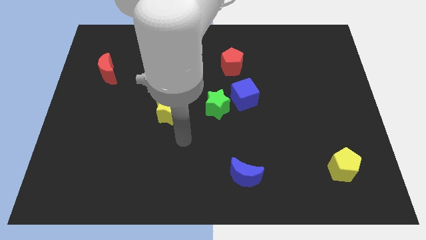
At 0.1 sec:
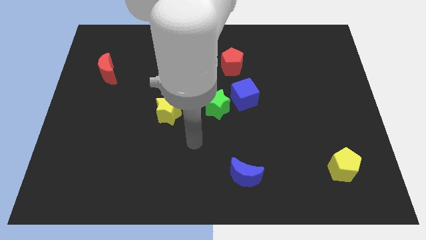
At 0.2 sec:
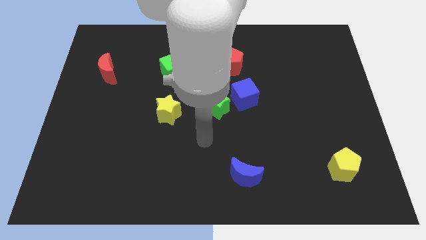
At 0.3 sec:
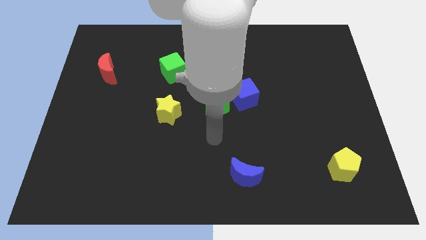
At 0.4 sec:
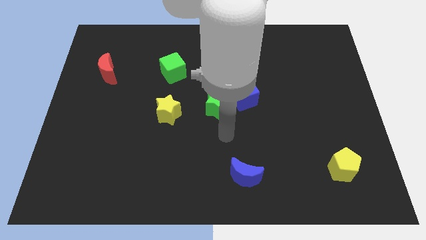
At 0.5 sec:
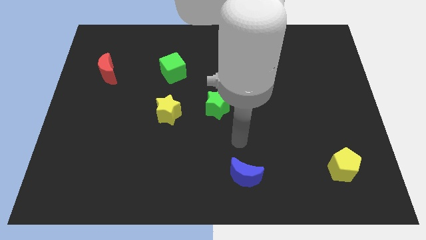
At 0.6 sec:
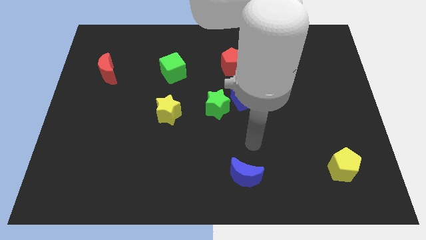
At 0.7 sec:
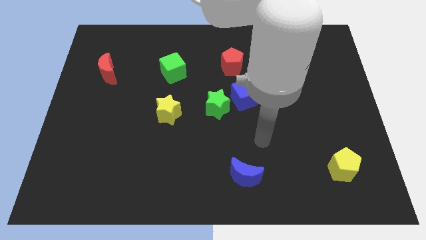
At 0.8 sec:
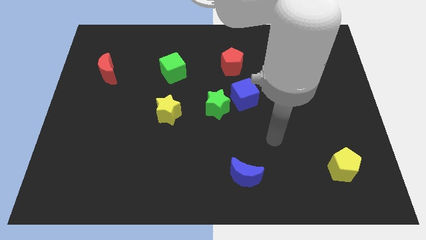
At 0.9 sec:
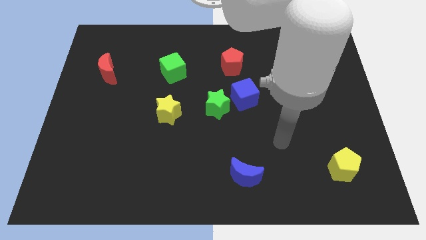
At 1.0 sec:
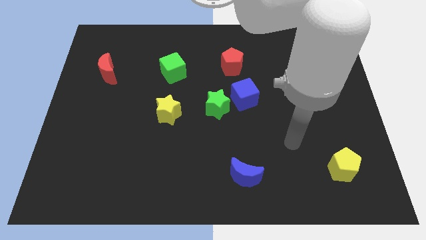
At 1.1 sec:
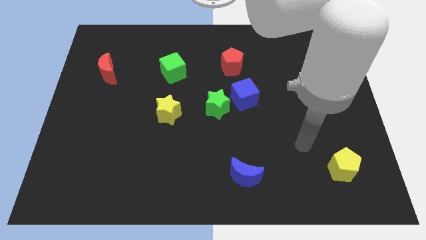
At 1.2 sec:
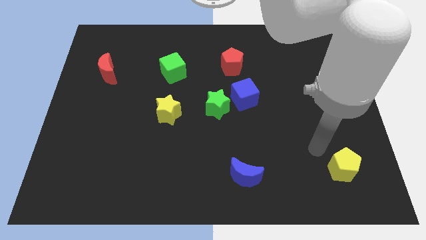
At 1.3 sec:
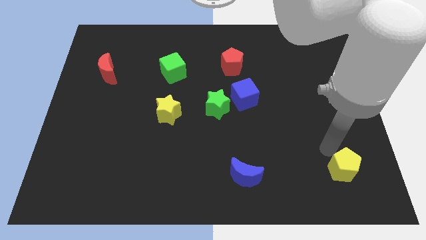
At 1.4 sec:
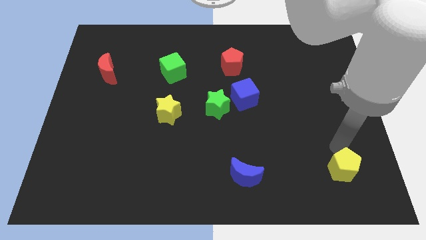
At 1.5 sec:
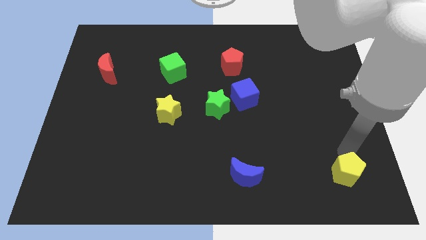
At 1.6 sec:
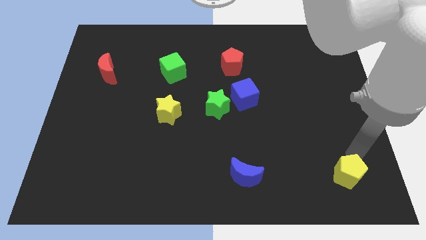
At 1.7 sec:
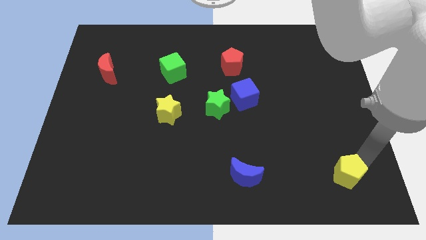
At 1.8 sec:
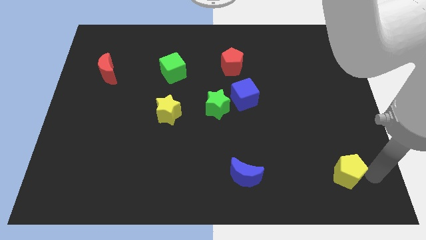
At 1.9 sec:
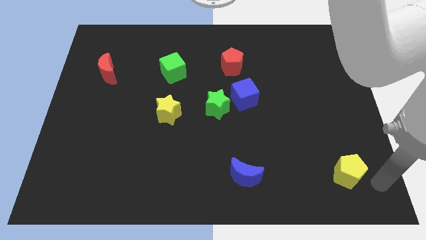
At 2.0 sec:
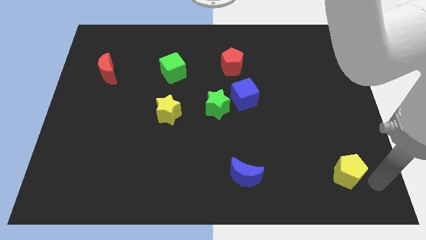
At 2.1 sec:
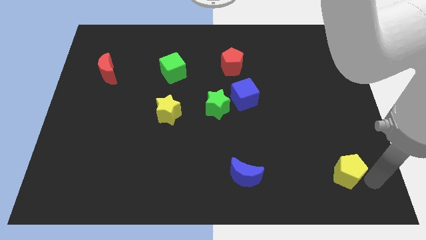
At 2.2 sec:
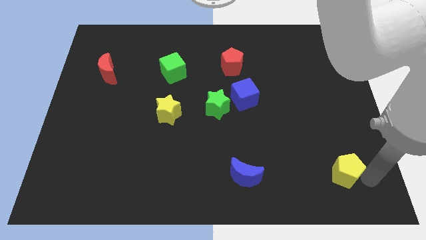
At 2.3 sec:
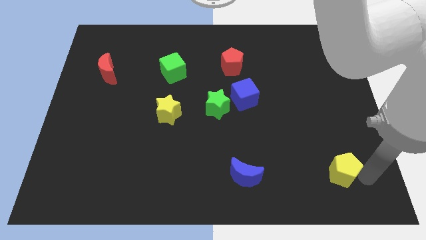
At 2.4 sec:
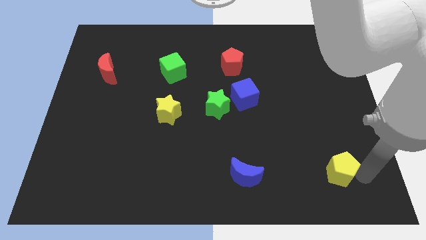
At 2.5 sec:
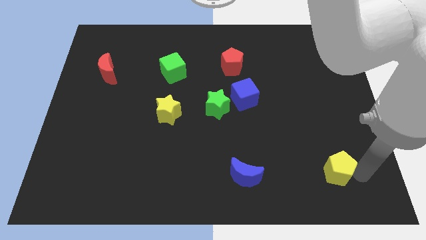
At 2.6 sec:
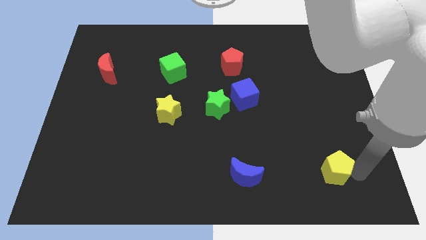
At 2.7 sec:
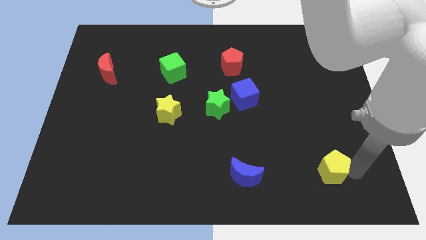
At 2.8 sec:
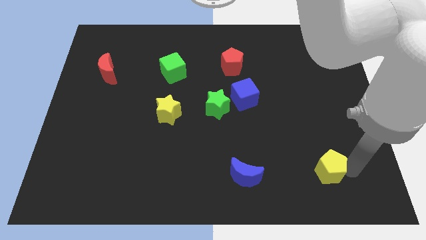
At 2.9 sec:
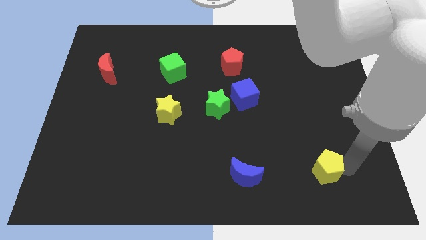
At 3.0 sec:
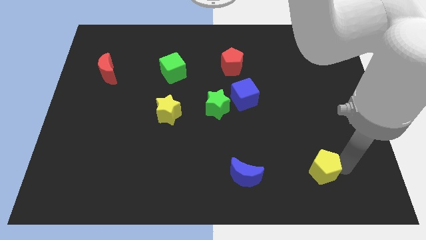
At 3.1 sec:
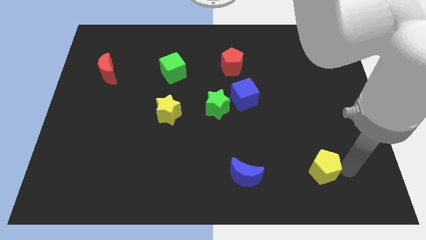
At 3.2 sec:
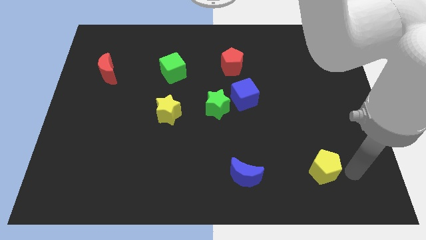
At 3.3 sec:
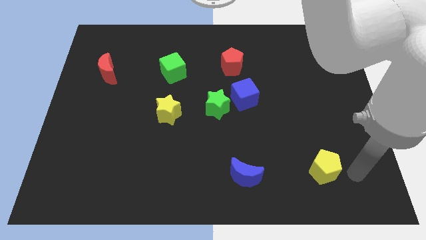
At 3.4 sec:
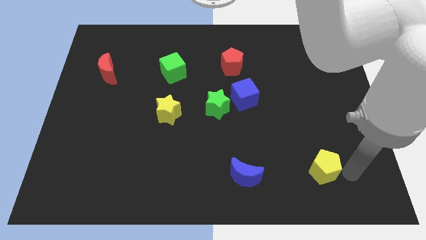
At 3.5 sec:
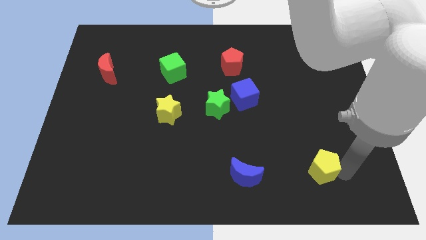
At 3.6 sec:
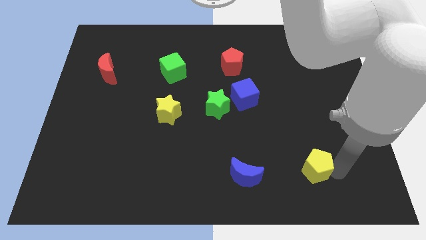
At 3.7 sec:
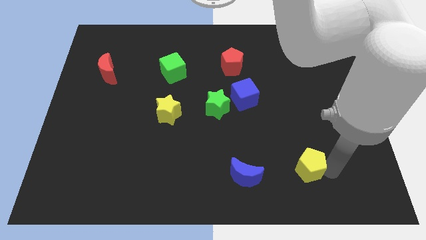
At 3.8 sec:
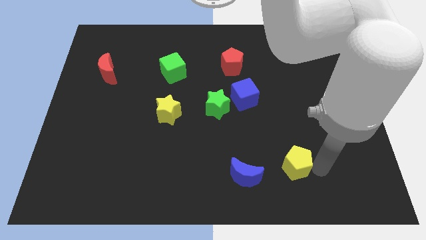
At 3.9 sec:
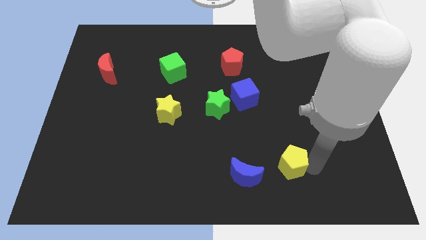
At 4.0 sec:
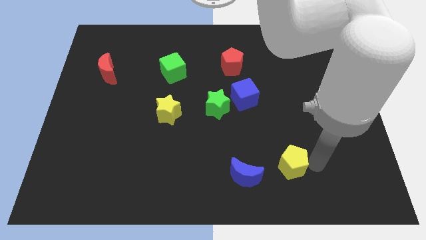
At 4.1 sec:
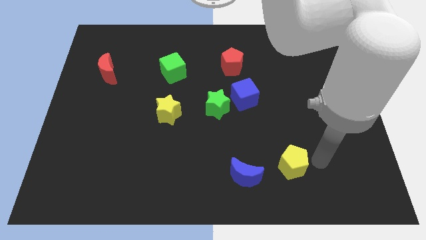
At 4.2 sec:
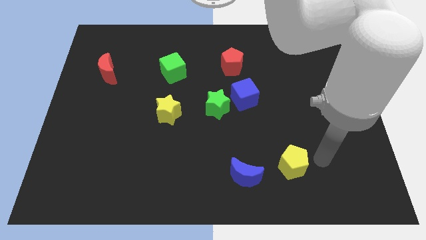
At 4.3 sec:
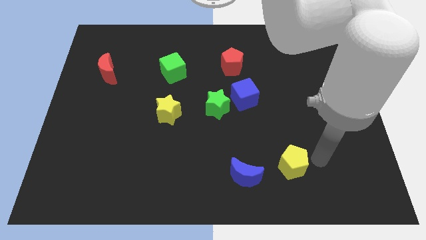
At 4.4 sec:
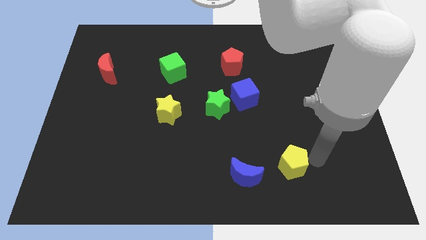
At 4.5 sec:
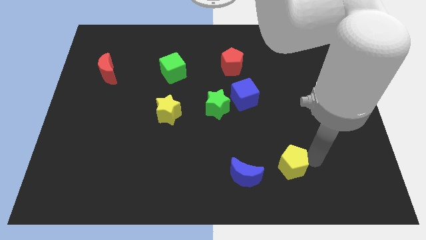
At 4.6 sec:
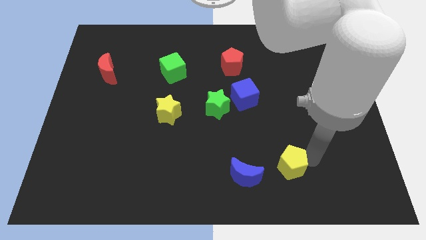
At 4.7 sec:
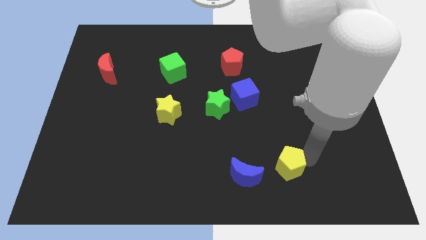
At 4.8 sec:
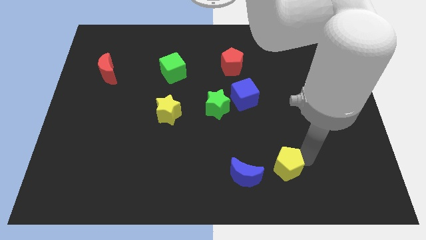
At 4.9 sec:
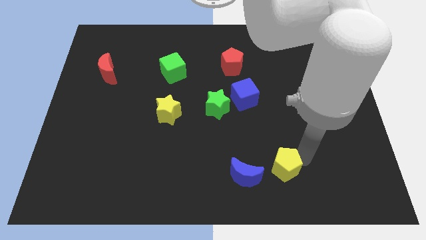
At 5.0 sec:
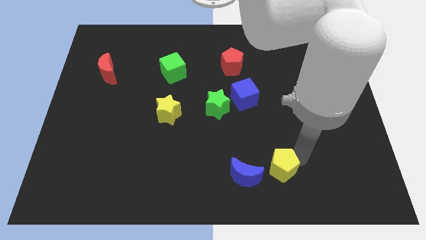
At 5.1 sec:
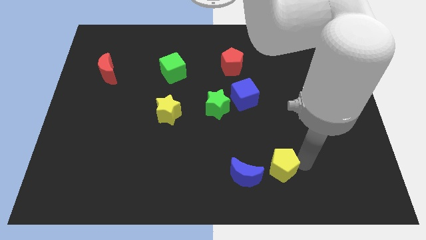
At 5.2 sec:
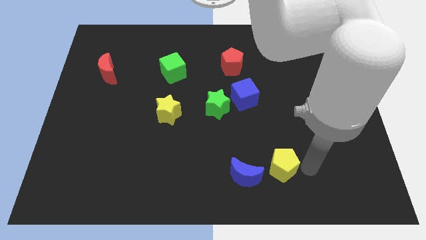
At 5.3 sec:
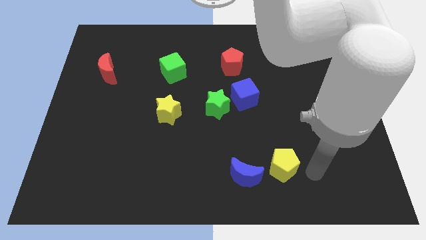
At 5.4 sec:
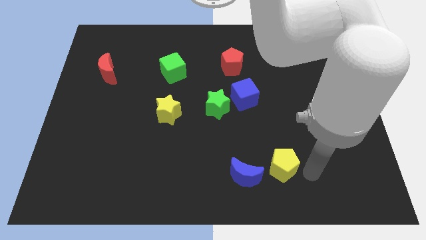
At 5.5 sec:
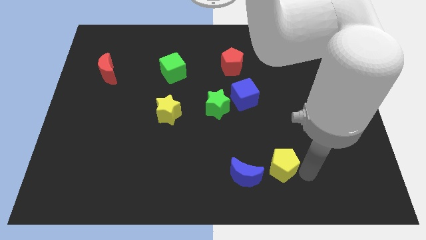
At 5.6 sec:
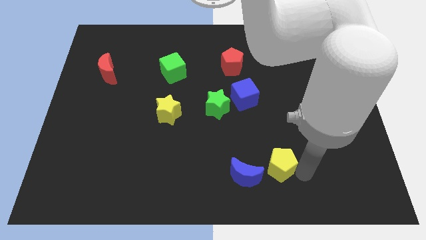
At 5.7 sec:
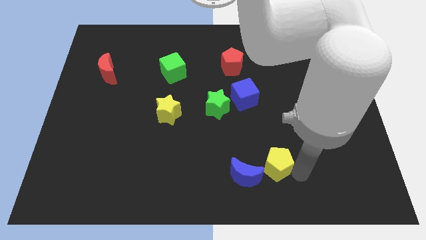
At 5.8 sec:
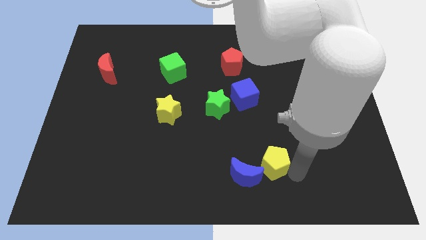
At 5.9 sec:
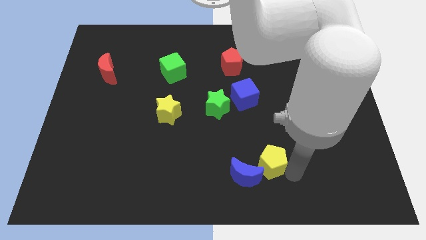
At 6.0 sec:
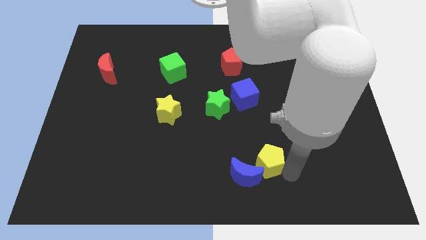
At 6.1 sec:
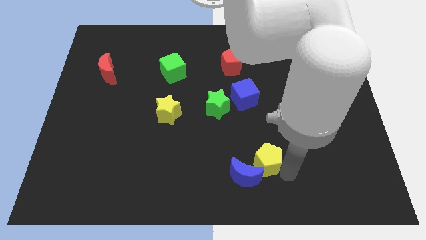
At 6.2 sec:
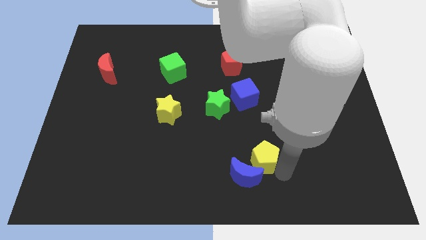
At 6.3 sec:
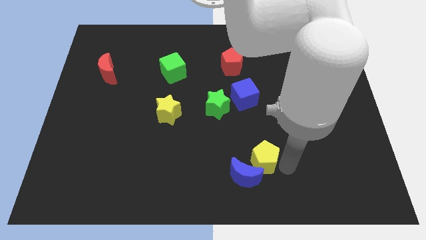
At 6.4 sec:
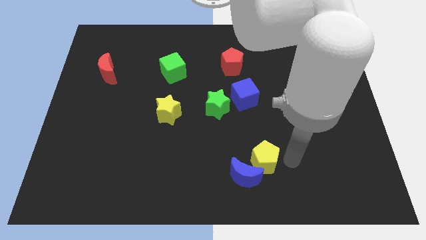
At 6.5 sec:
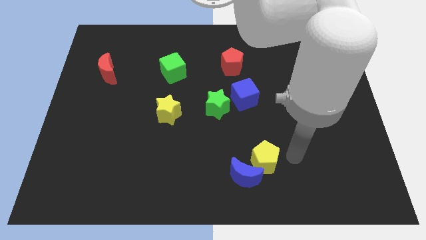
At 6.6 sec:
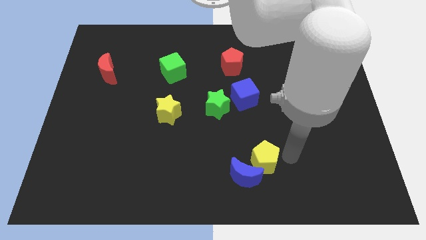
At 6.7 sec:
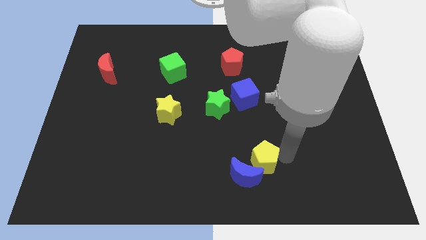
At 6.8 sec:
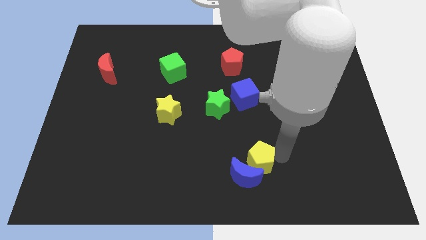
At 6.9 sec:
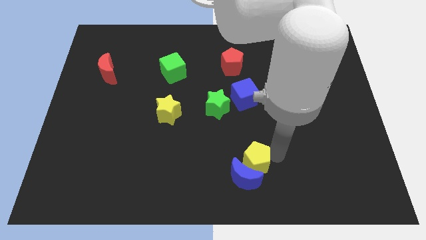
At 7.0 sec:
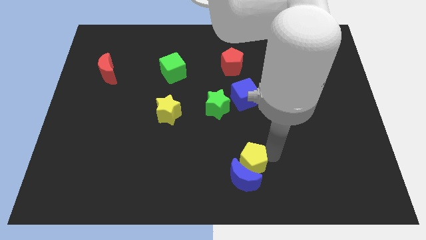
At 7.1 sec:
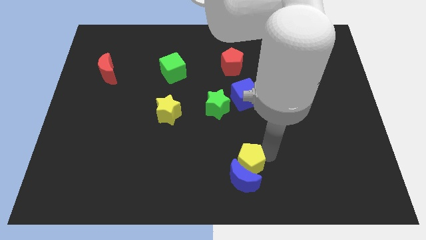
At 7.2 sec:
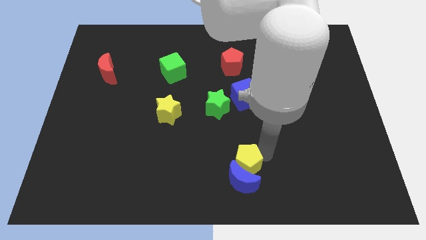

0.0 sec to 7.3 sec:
push the yellow pentagon left

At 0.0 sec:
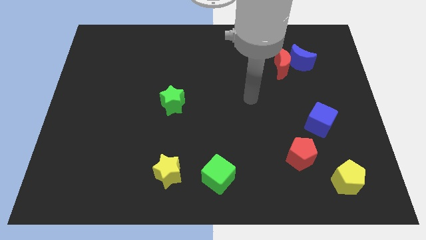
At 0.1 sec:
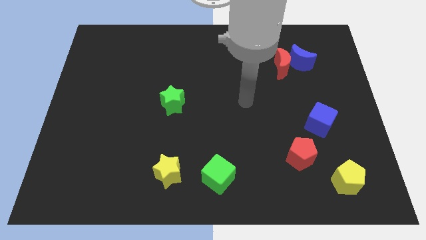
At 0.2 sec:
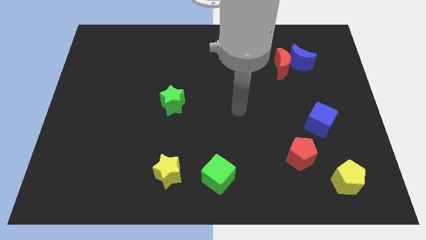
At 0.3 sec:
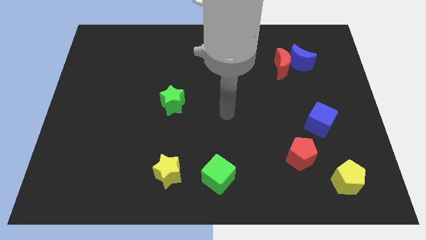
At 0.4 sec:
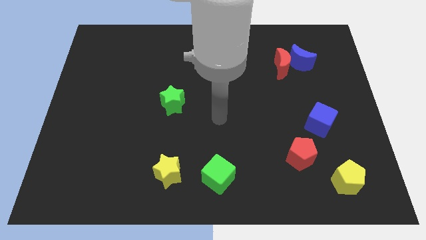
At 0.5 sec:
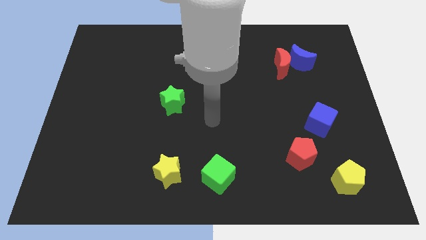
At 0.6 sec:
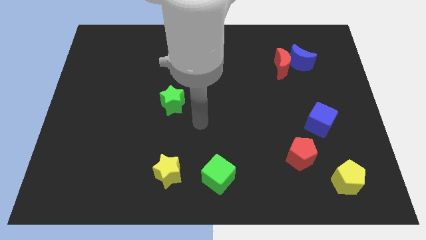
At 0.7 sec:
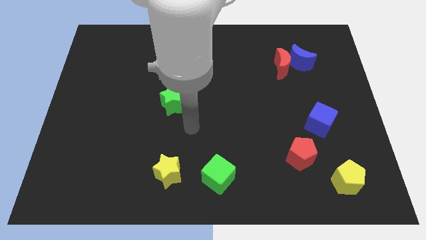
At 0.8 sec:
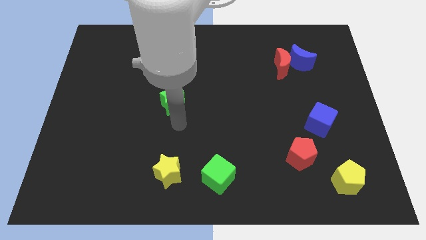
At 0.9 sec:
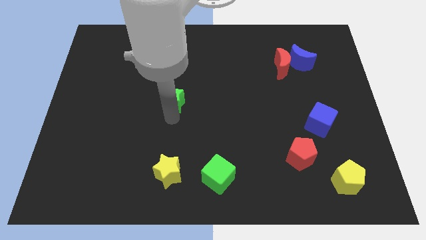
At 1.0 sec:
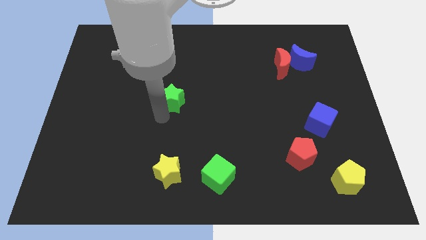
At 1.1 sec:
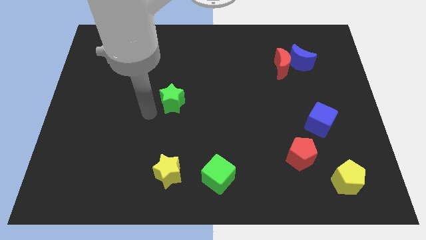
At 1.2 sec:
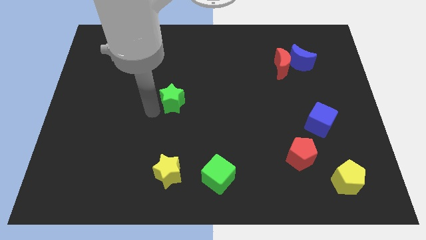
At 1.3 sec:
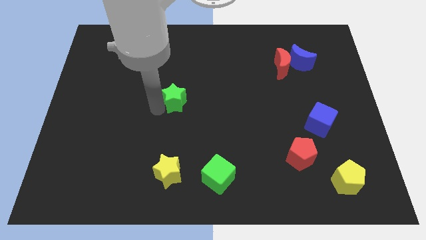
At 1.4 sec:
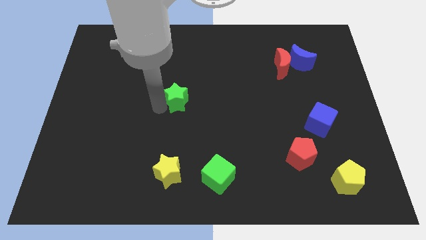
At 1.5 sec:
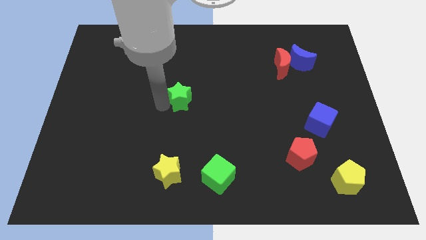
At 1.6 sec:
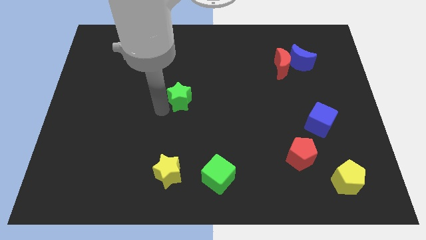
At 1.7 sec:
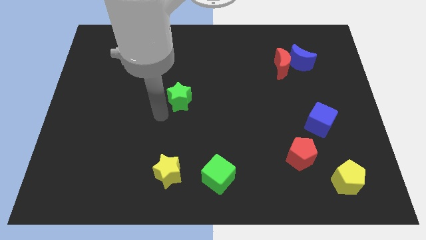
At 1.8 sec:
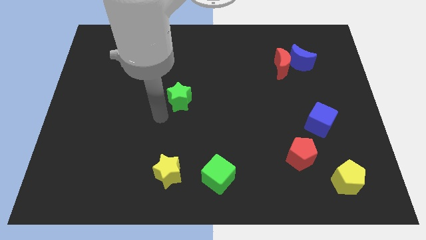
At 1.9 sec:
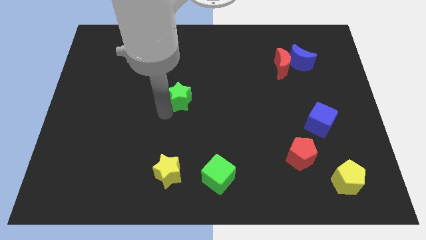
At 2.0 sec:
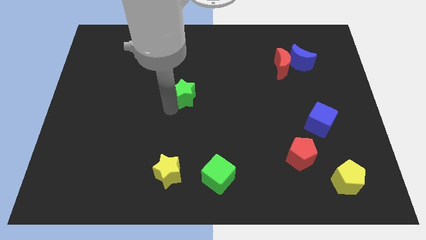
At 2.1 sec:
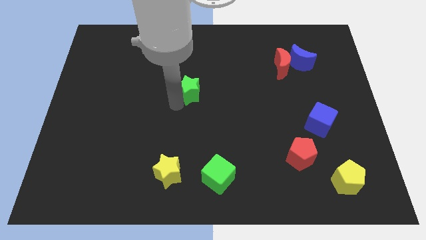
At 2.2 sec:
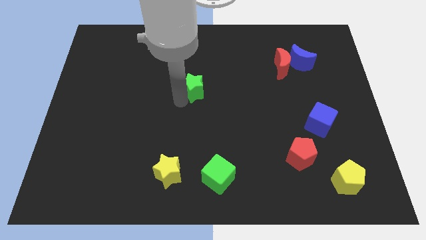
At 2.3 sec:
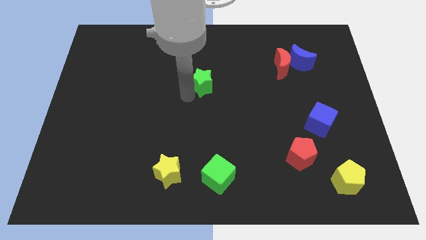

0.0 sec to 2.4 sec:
push the green star a little bit upwards and then to the right
